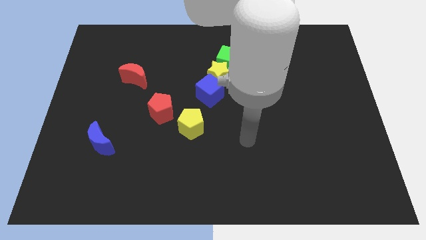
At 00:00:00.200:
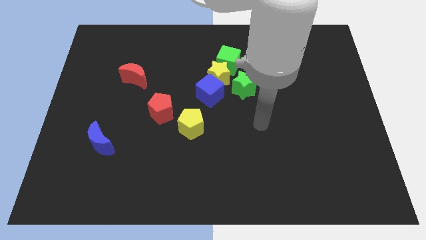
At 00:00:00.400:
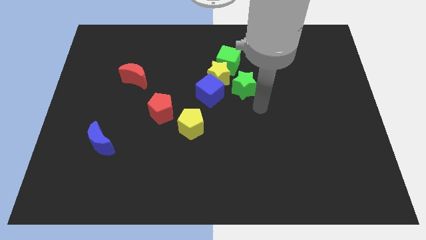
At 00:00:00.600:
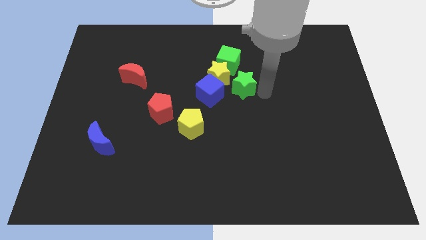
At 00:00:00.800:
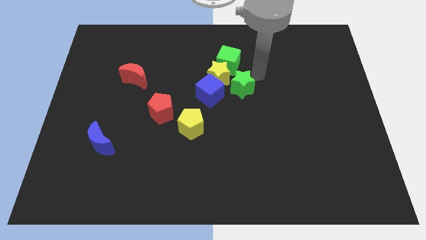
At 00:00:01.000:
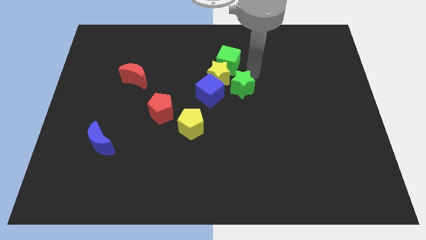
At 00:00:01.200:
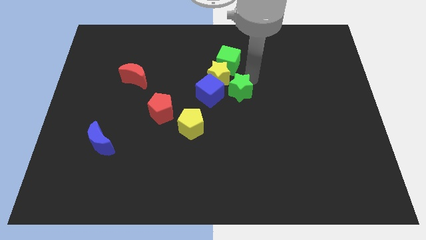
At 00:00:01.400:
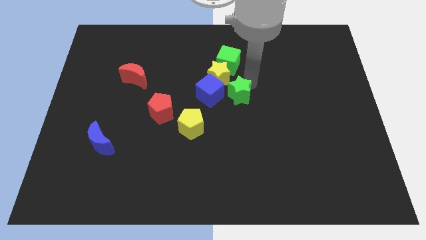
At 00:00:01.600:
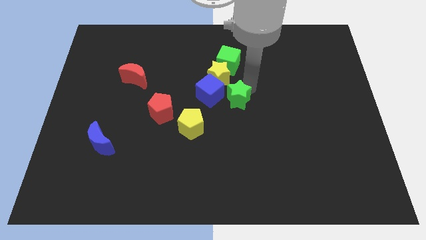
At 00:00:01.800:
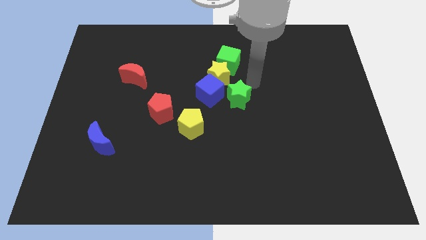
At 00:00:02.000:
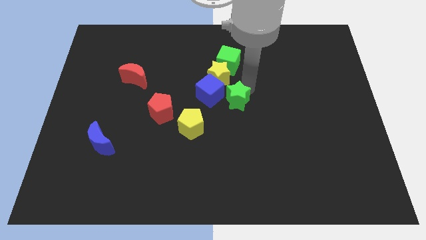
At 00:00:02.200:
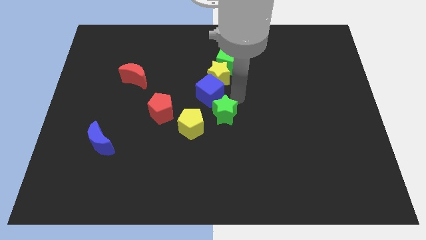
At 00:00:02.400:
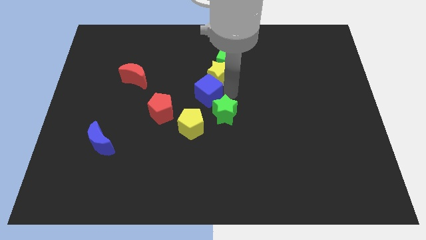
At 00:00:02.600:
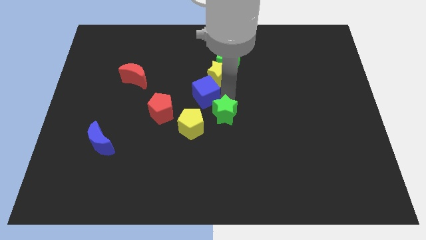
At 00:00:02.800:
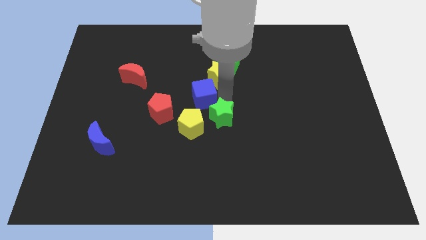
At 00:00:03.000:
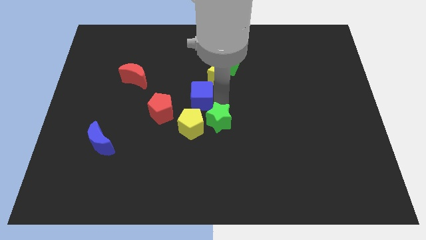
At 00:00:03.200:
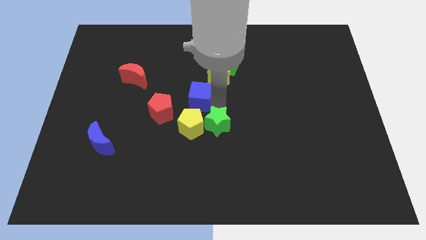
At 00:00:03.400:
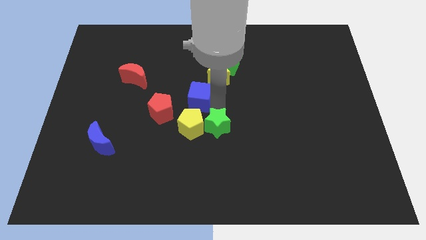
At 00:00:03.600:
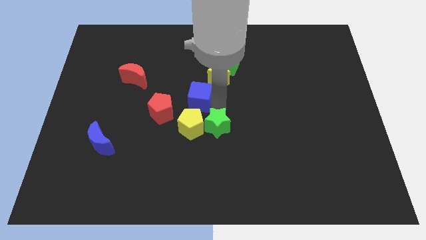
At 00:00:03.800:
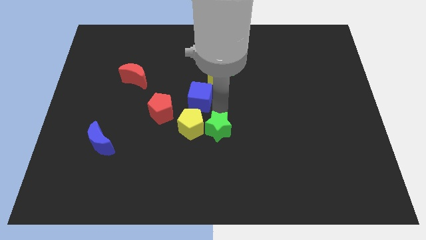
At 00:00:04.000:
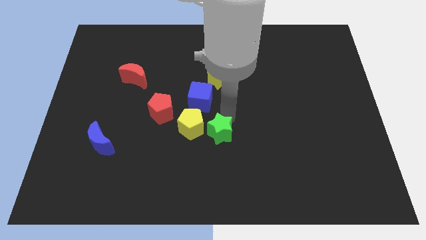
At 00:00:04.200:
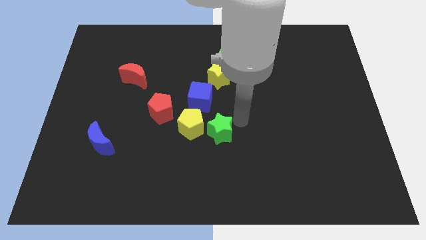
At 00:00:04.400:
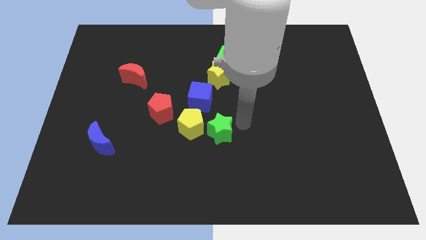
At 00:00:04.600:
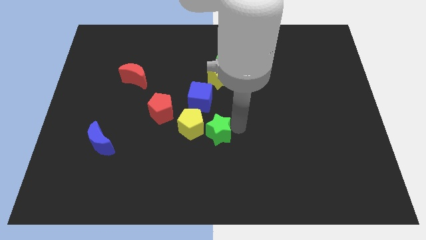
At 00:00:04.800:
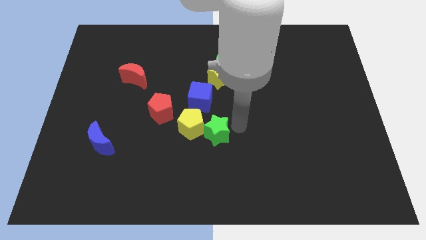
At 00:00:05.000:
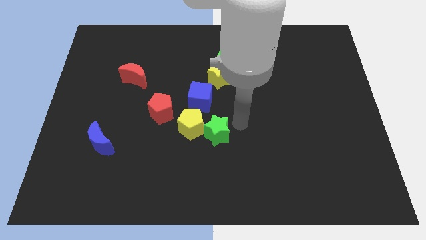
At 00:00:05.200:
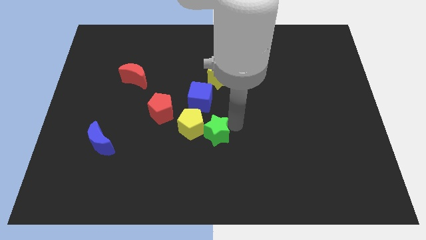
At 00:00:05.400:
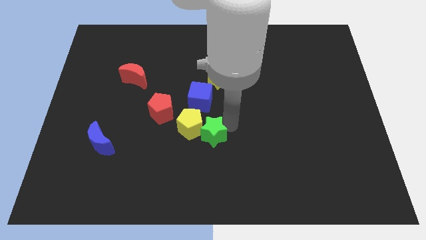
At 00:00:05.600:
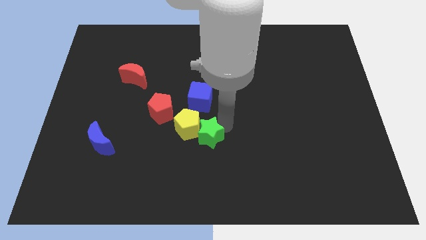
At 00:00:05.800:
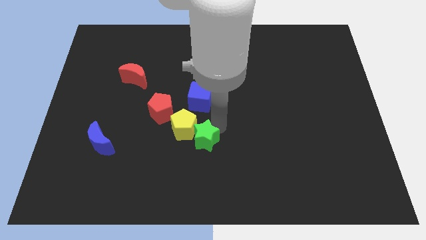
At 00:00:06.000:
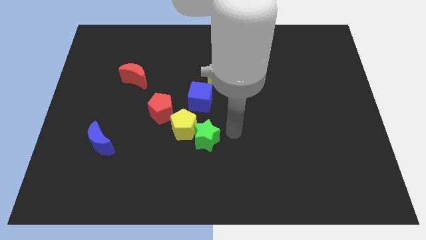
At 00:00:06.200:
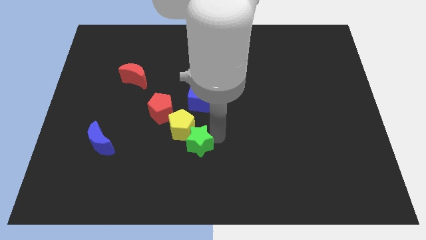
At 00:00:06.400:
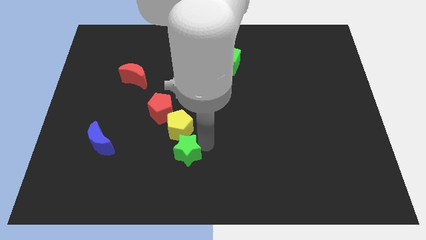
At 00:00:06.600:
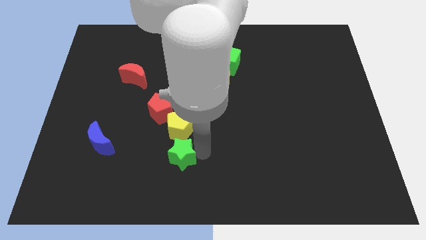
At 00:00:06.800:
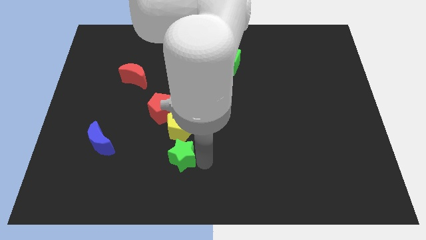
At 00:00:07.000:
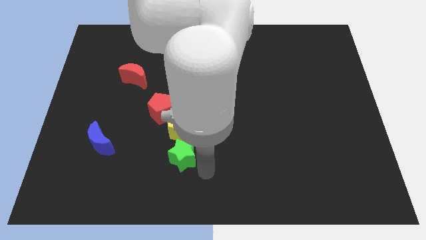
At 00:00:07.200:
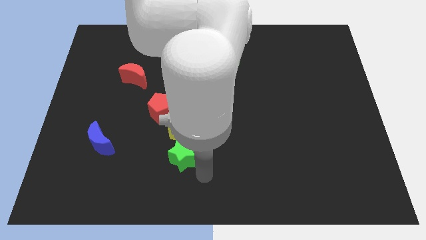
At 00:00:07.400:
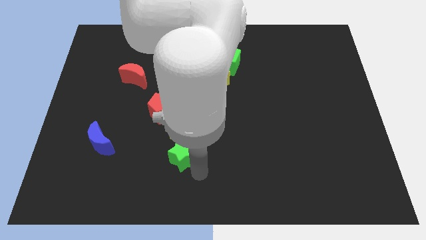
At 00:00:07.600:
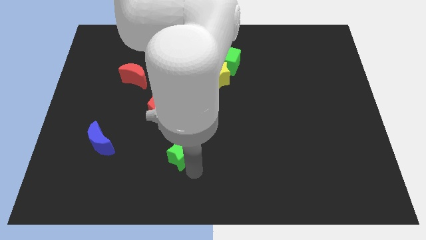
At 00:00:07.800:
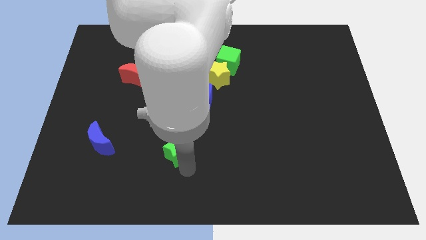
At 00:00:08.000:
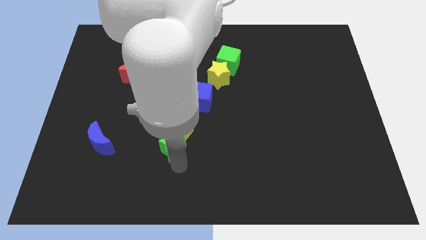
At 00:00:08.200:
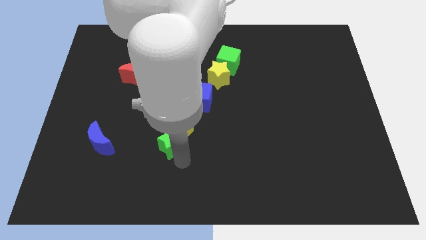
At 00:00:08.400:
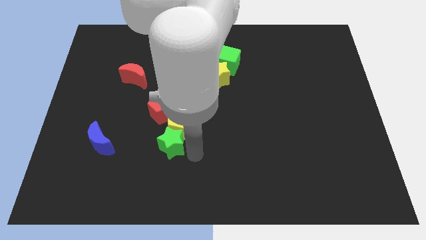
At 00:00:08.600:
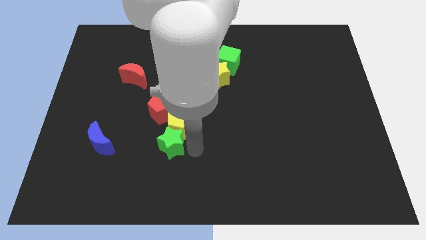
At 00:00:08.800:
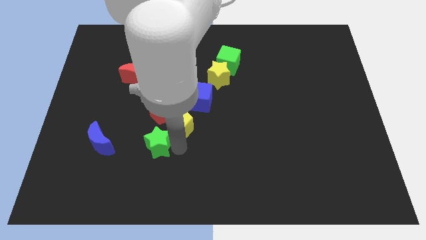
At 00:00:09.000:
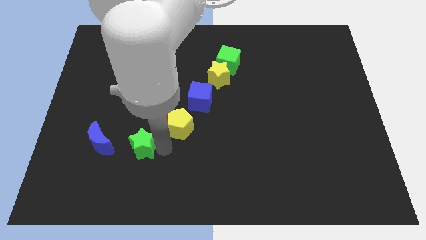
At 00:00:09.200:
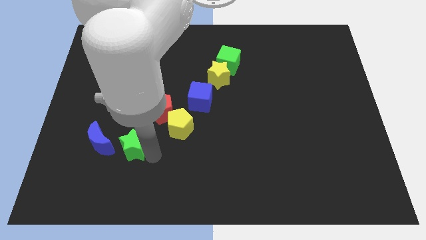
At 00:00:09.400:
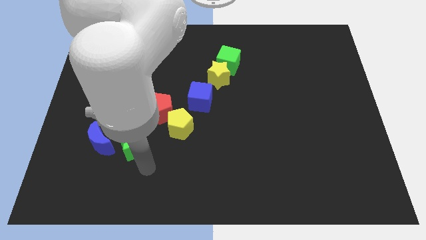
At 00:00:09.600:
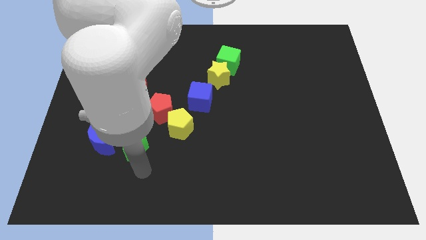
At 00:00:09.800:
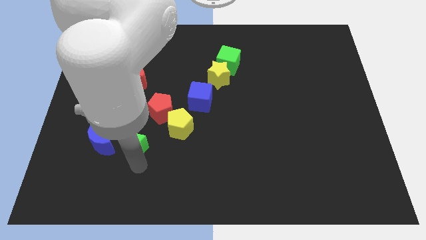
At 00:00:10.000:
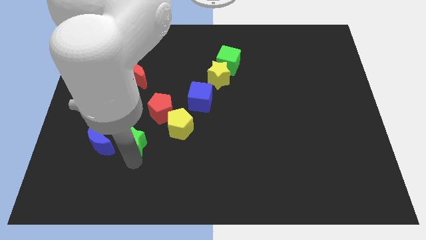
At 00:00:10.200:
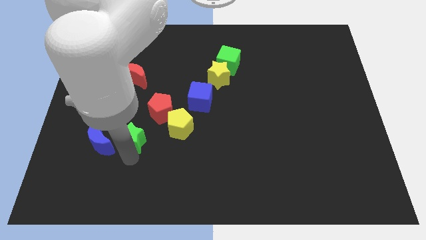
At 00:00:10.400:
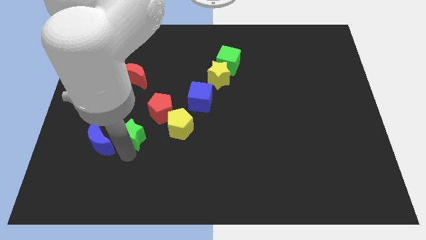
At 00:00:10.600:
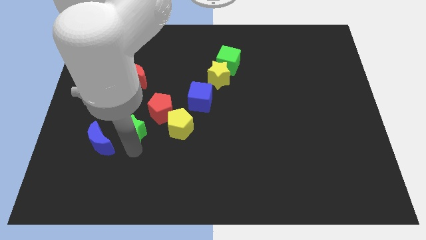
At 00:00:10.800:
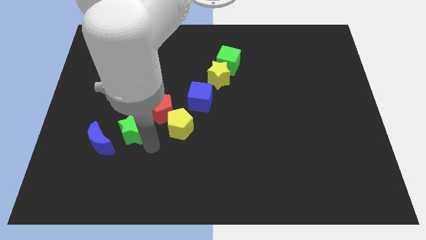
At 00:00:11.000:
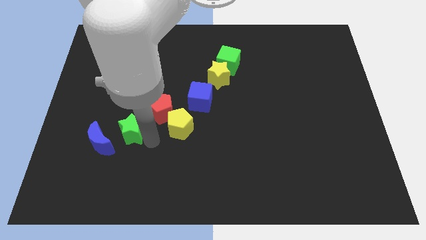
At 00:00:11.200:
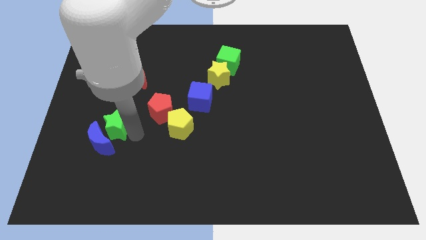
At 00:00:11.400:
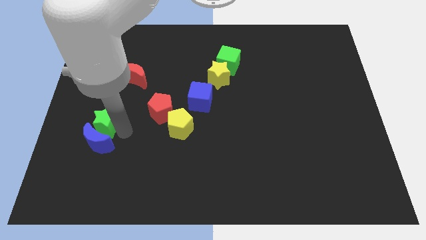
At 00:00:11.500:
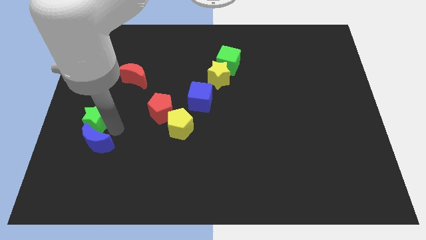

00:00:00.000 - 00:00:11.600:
push the green star to the center left
